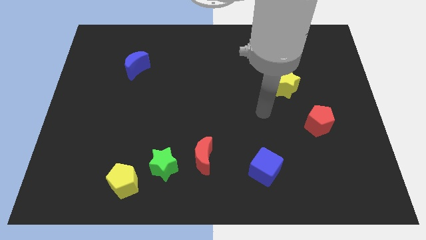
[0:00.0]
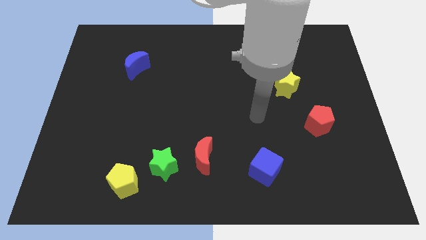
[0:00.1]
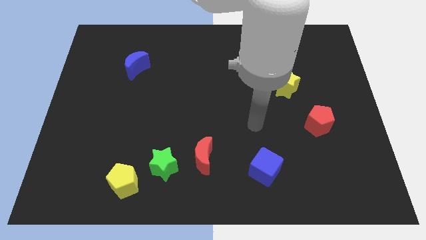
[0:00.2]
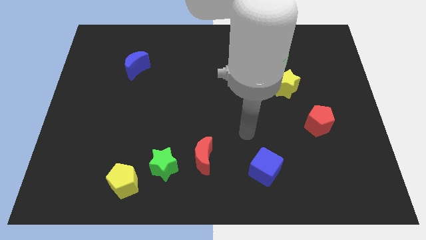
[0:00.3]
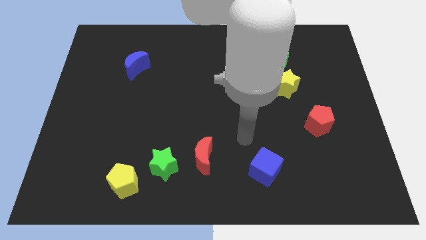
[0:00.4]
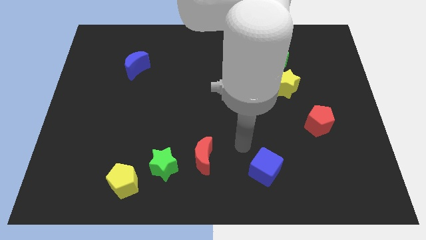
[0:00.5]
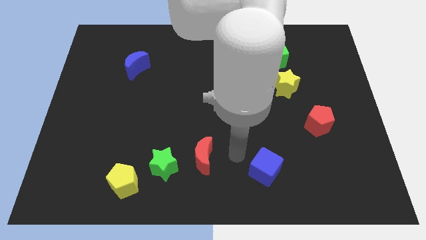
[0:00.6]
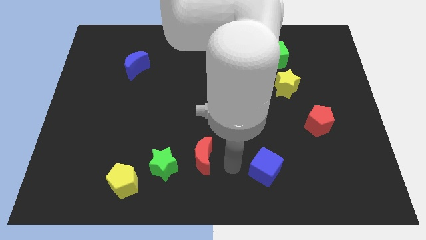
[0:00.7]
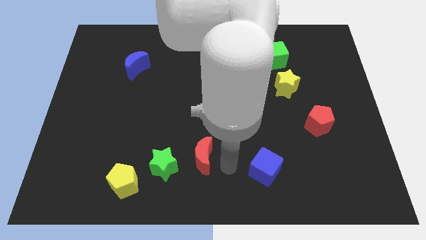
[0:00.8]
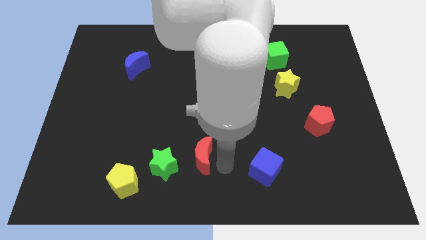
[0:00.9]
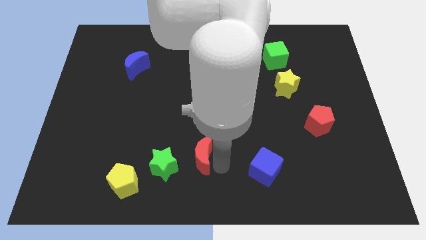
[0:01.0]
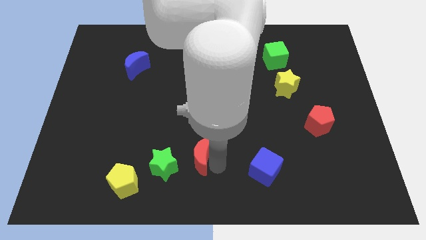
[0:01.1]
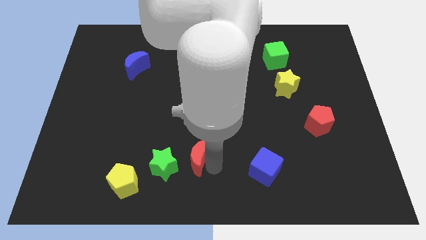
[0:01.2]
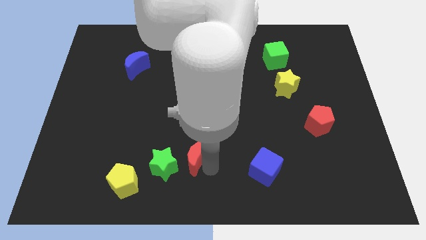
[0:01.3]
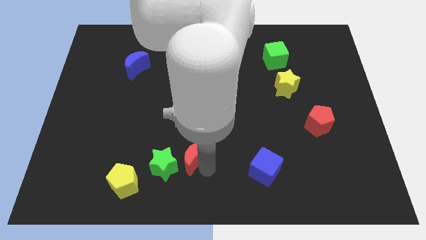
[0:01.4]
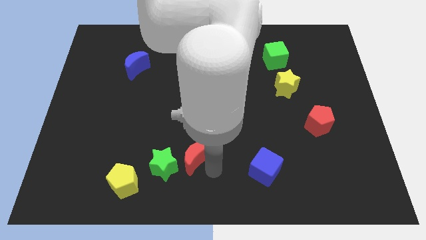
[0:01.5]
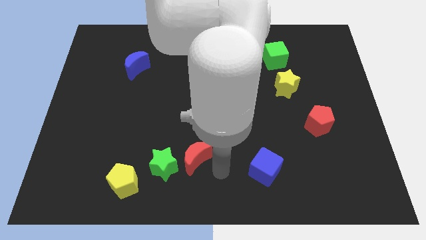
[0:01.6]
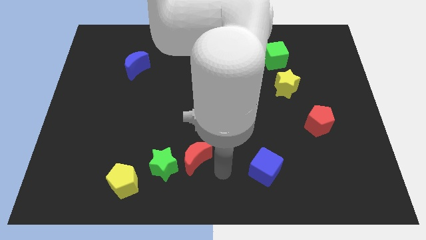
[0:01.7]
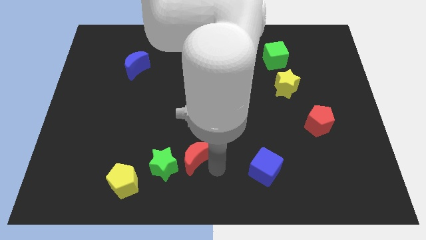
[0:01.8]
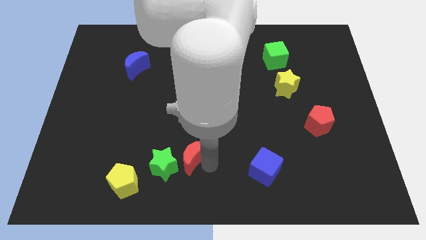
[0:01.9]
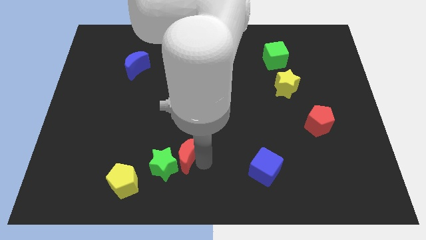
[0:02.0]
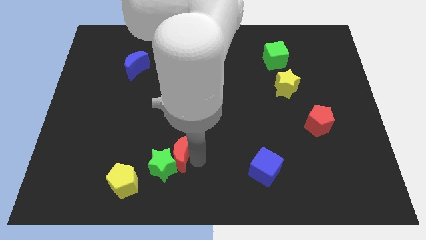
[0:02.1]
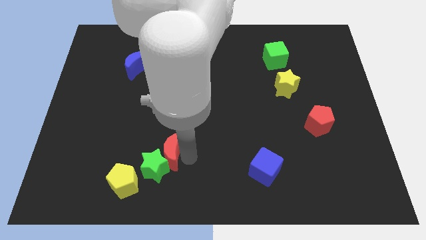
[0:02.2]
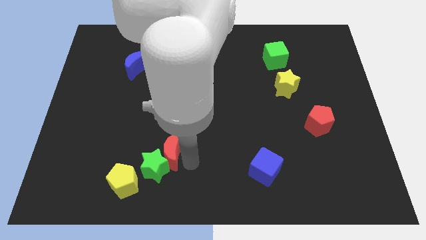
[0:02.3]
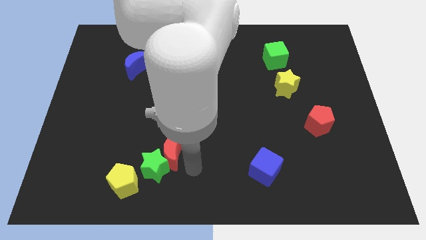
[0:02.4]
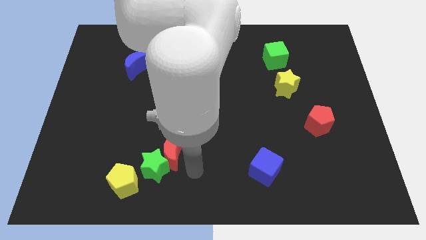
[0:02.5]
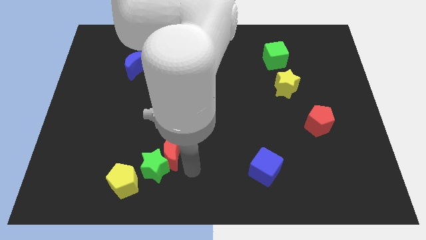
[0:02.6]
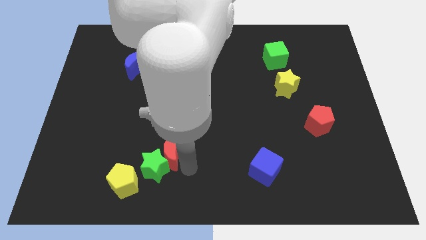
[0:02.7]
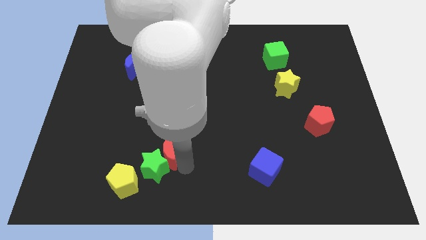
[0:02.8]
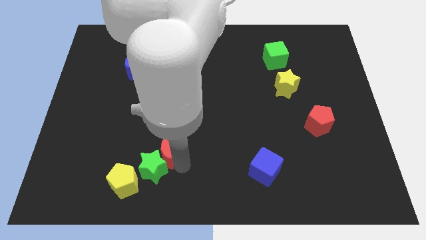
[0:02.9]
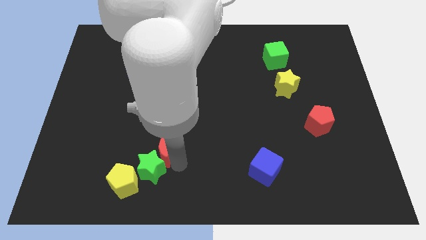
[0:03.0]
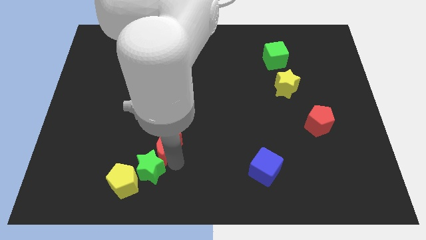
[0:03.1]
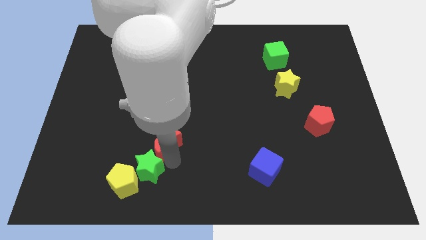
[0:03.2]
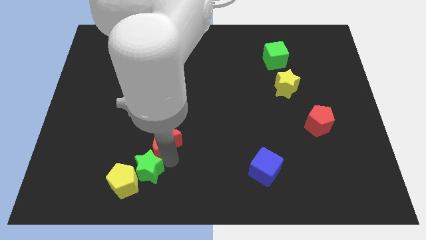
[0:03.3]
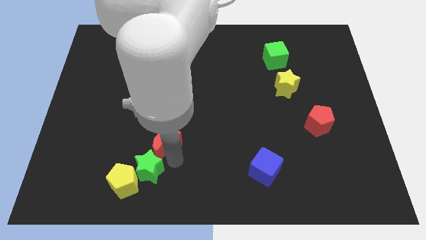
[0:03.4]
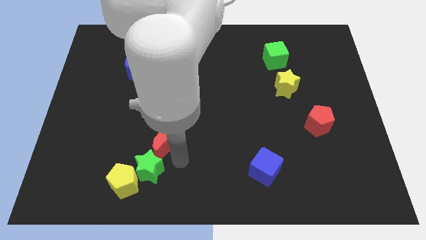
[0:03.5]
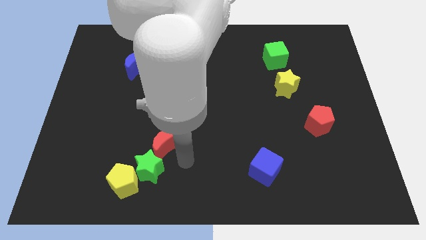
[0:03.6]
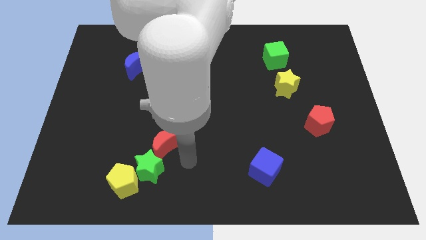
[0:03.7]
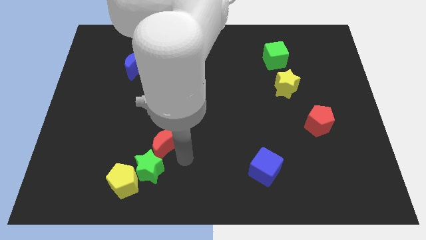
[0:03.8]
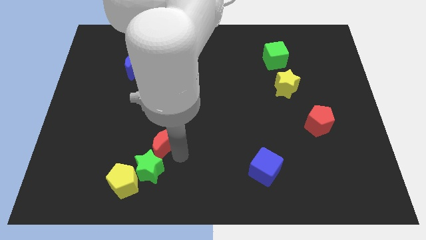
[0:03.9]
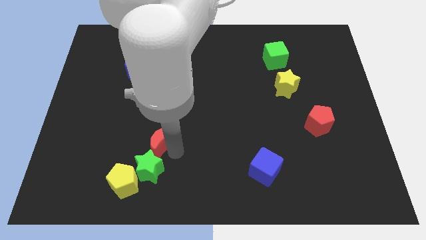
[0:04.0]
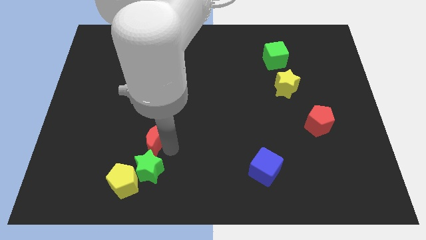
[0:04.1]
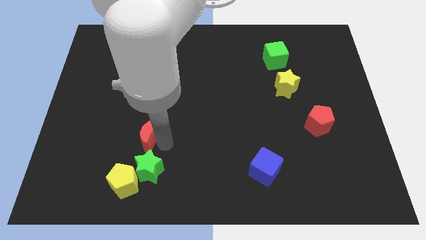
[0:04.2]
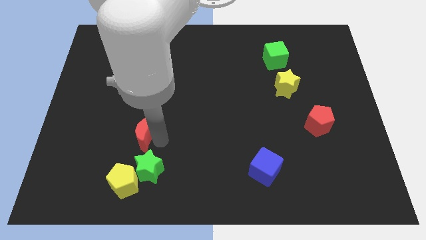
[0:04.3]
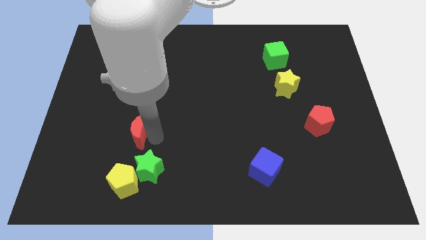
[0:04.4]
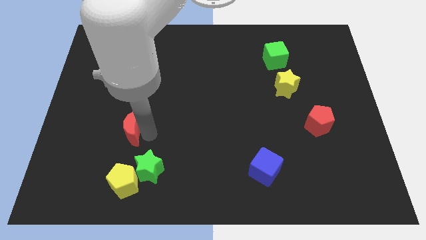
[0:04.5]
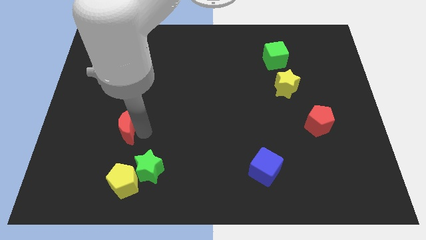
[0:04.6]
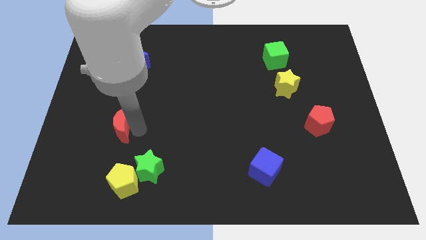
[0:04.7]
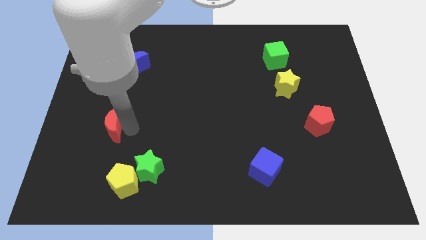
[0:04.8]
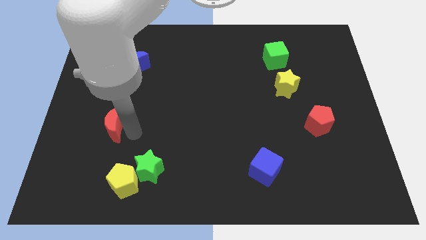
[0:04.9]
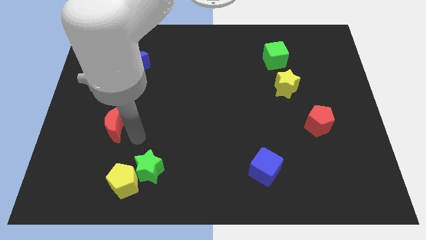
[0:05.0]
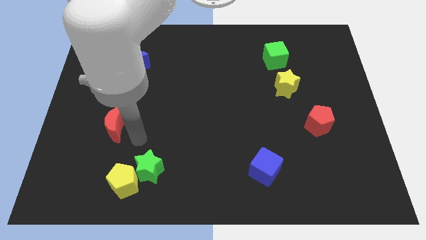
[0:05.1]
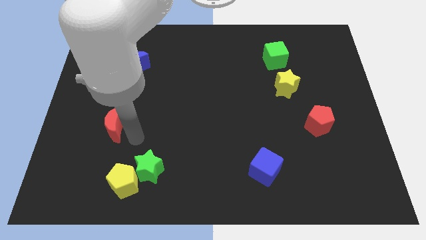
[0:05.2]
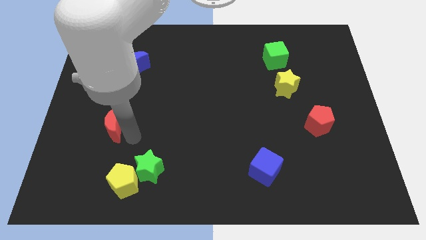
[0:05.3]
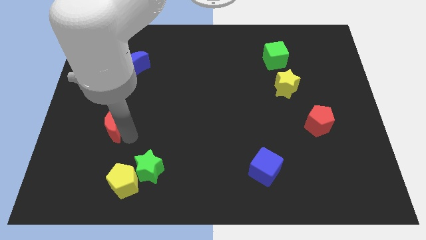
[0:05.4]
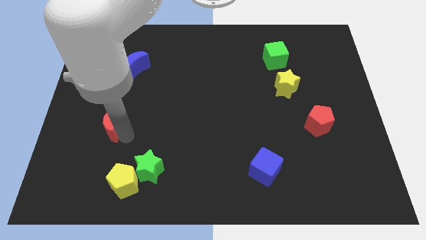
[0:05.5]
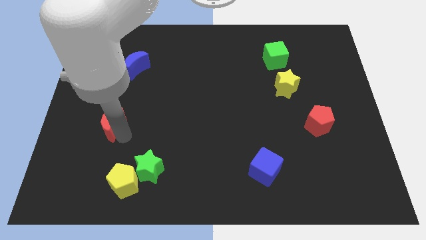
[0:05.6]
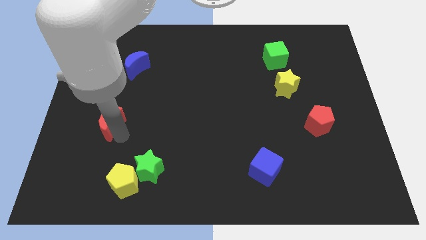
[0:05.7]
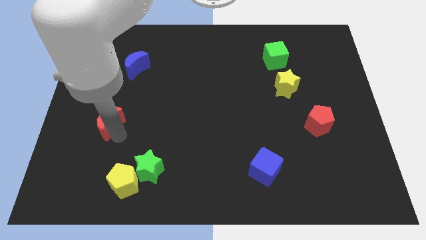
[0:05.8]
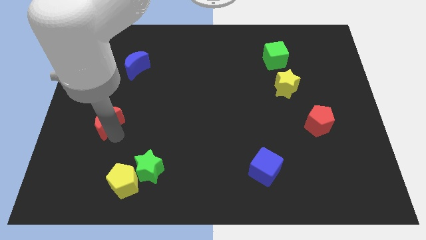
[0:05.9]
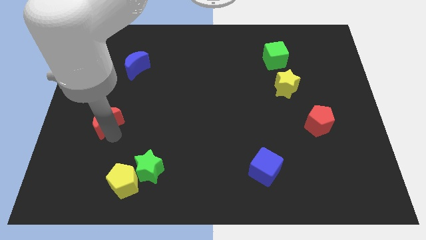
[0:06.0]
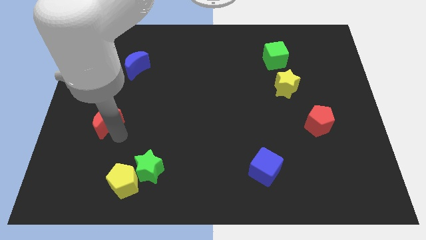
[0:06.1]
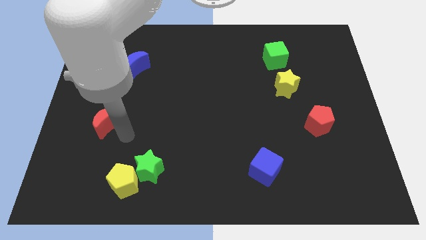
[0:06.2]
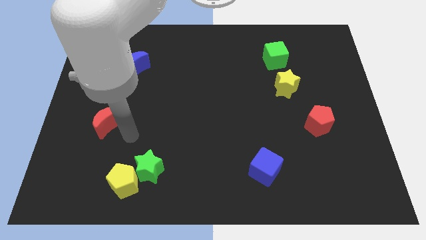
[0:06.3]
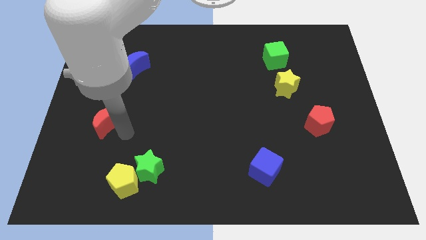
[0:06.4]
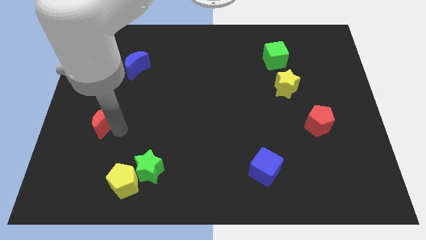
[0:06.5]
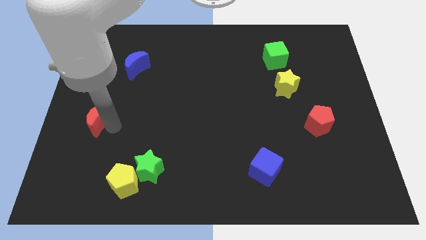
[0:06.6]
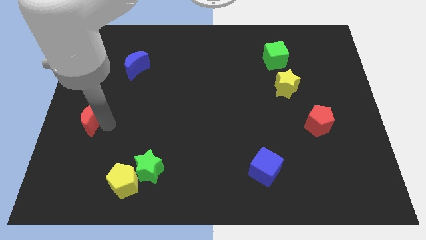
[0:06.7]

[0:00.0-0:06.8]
put the red moon to the center left
